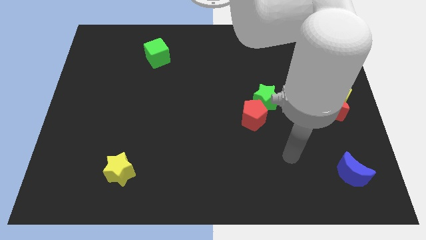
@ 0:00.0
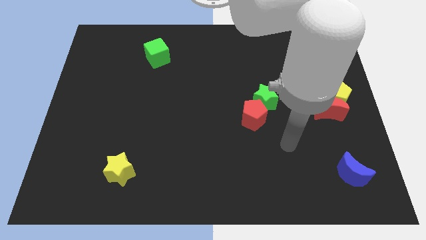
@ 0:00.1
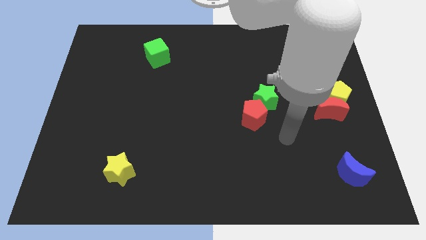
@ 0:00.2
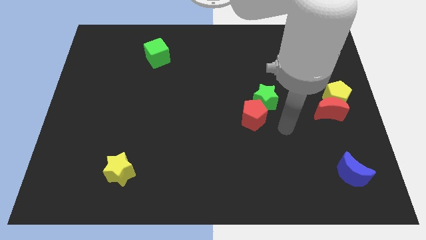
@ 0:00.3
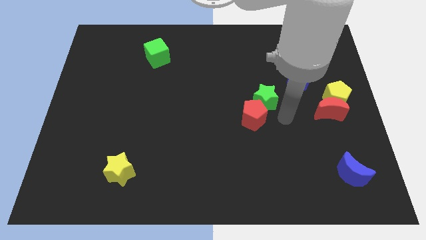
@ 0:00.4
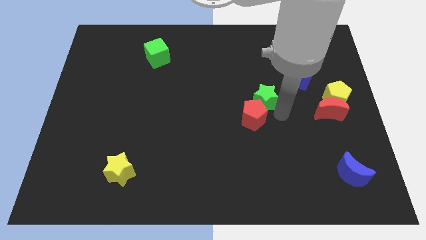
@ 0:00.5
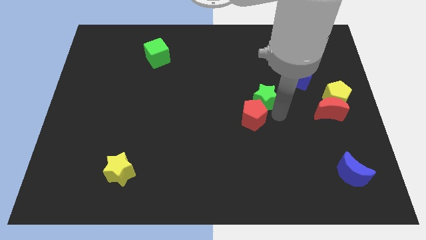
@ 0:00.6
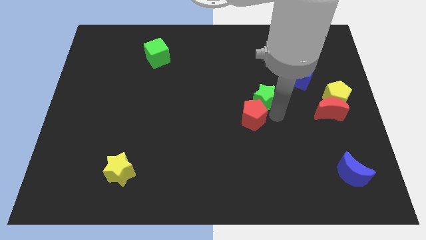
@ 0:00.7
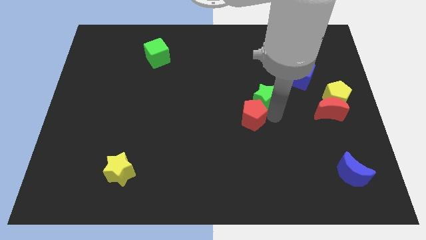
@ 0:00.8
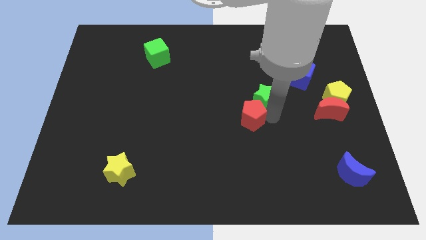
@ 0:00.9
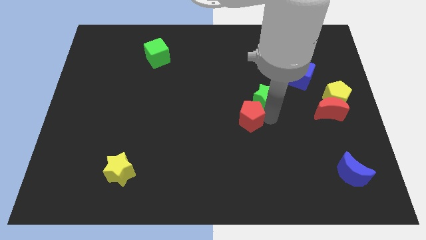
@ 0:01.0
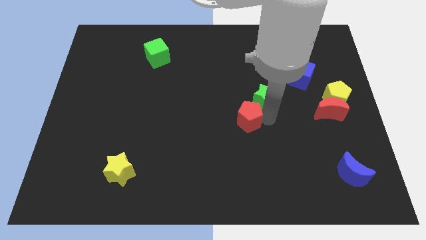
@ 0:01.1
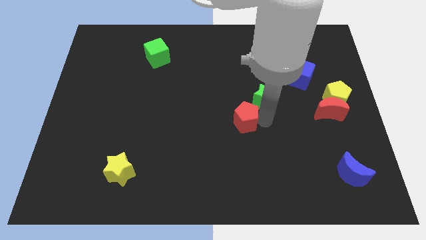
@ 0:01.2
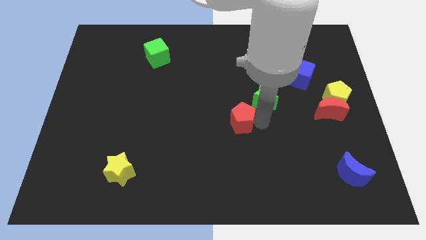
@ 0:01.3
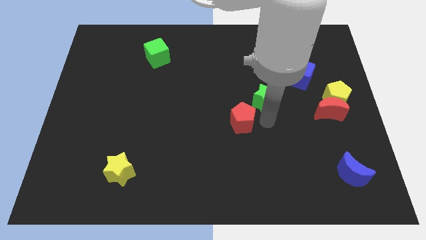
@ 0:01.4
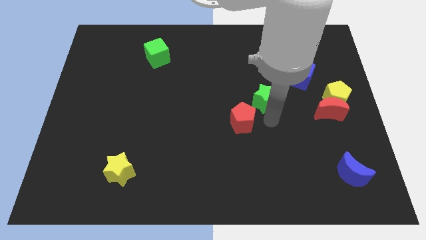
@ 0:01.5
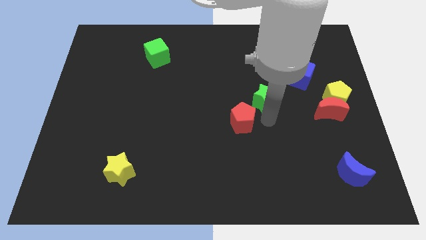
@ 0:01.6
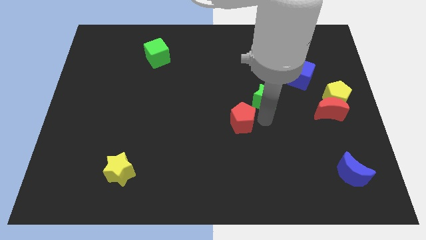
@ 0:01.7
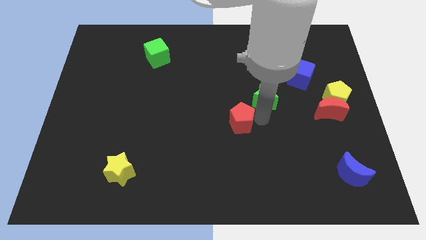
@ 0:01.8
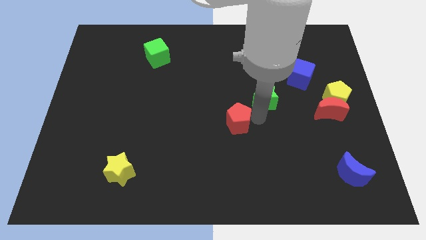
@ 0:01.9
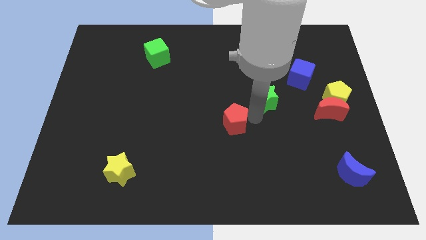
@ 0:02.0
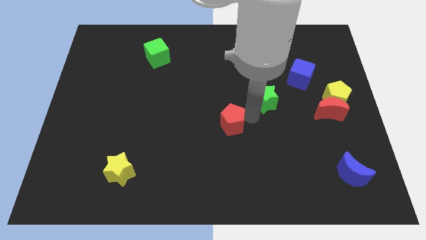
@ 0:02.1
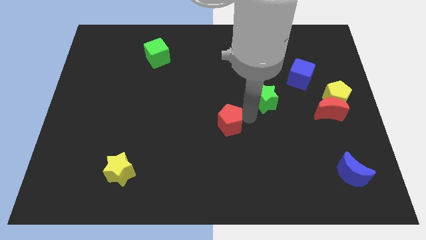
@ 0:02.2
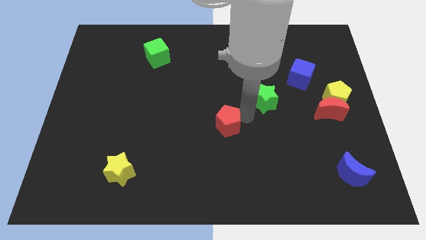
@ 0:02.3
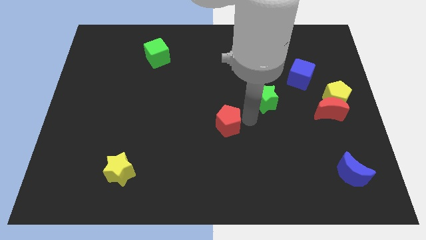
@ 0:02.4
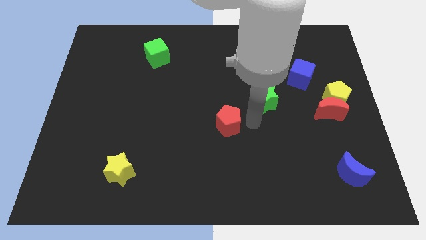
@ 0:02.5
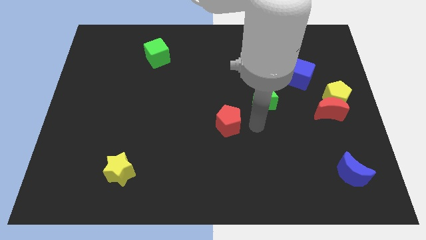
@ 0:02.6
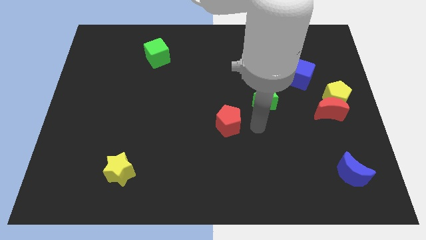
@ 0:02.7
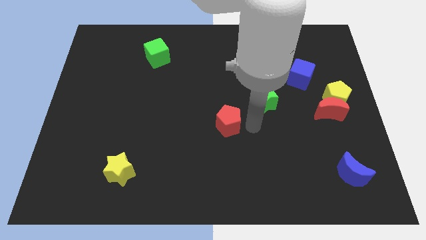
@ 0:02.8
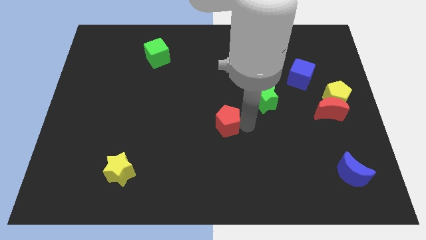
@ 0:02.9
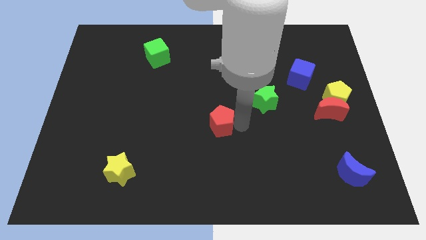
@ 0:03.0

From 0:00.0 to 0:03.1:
slightly push the red pentagon left

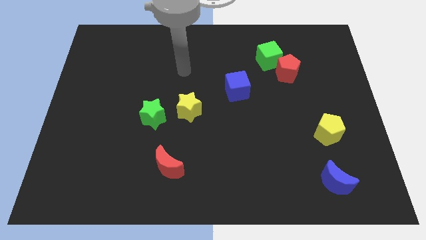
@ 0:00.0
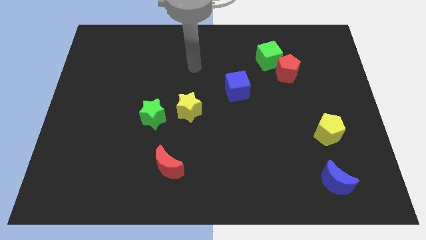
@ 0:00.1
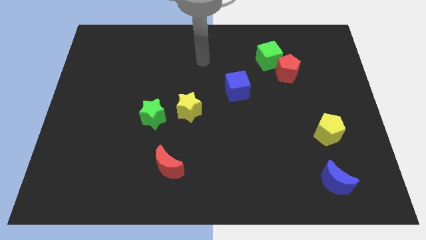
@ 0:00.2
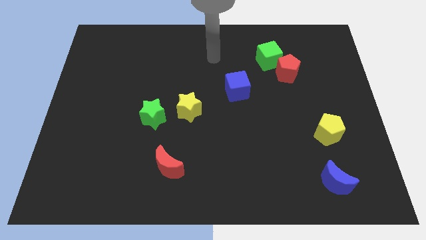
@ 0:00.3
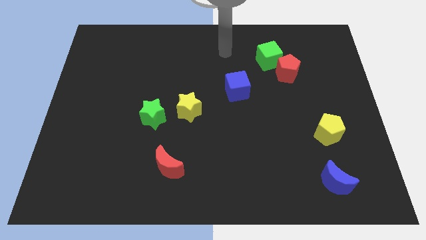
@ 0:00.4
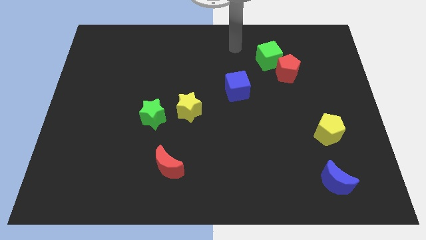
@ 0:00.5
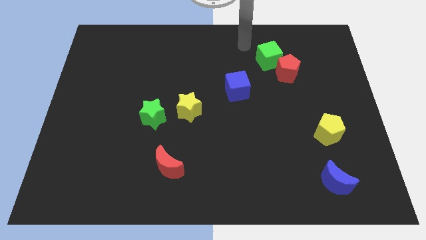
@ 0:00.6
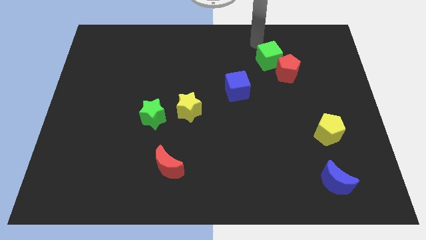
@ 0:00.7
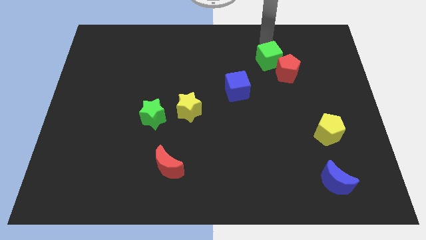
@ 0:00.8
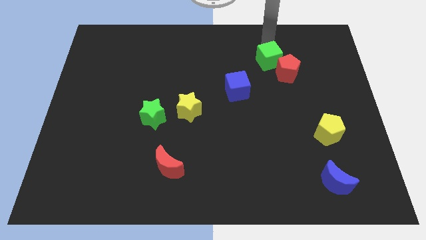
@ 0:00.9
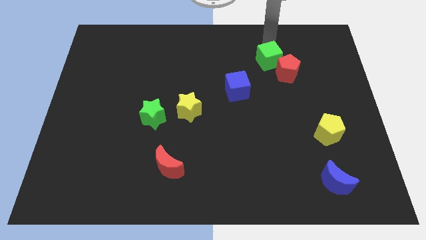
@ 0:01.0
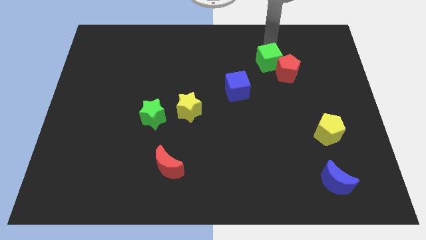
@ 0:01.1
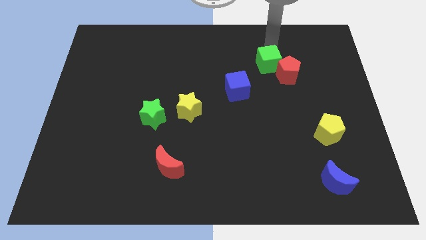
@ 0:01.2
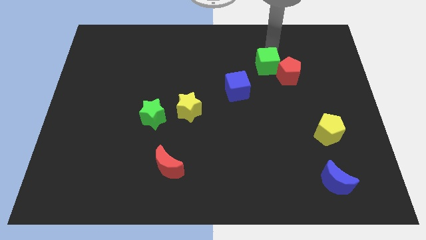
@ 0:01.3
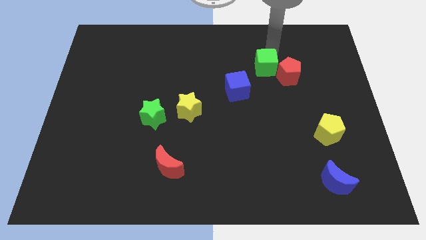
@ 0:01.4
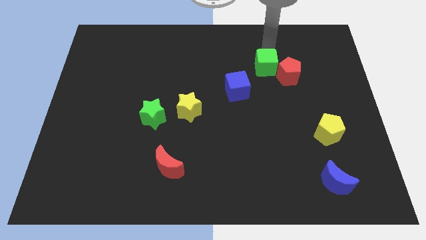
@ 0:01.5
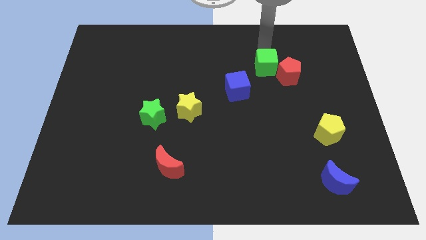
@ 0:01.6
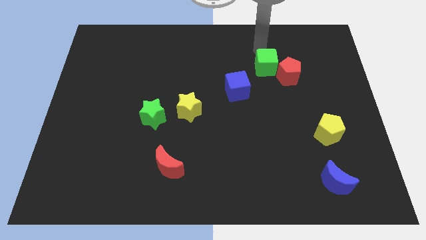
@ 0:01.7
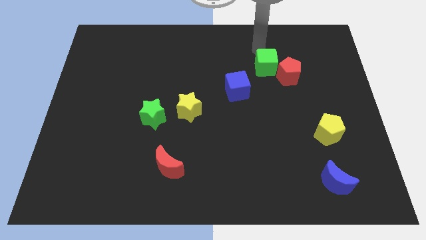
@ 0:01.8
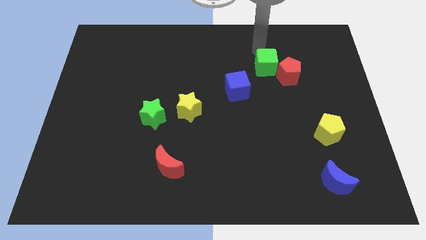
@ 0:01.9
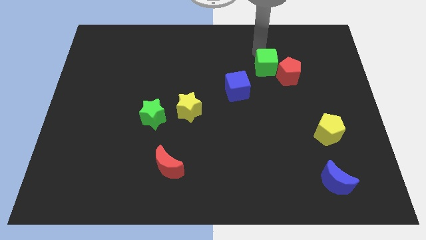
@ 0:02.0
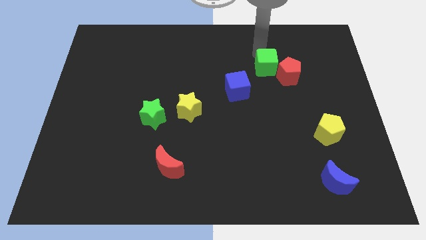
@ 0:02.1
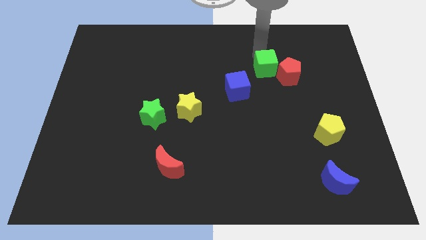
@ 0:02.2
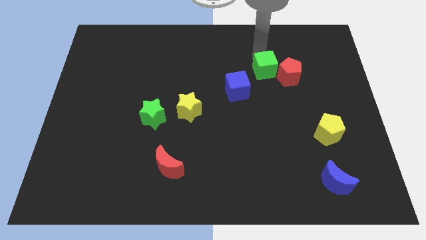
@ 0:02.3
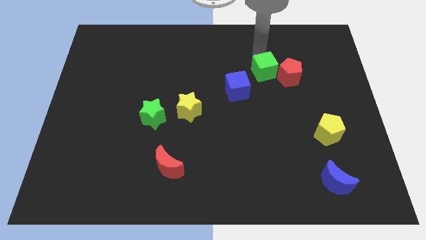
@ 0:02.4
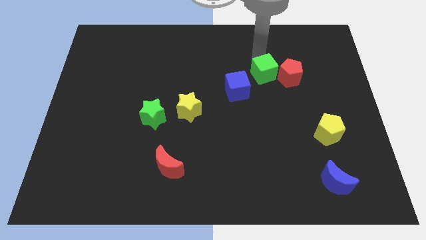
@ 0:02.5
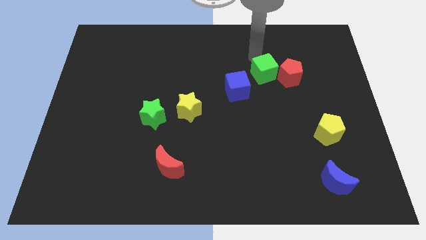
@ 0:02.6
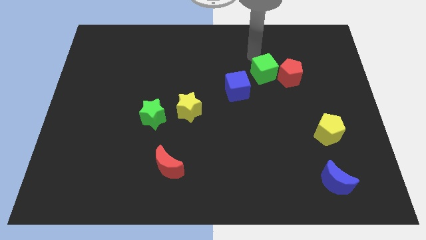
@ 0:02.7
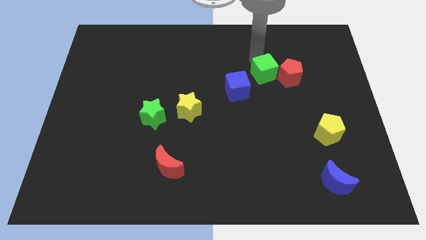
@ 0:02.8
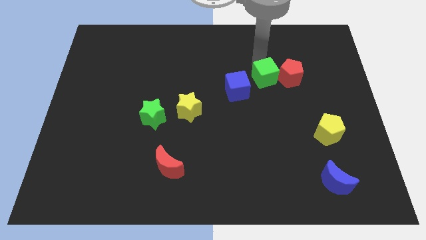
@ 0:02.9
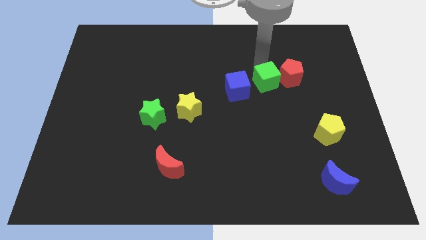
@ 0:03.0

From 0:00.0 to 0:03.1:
push the green cube downwards a little

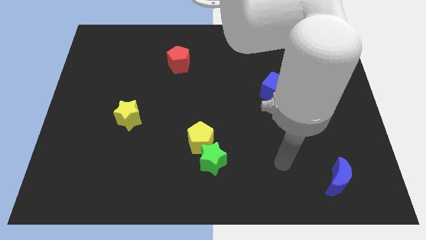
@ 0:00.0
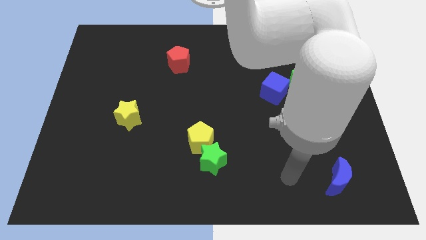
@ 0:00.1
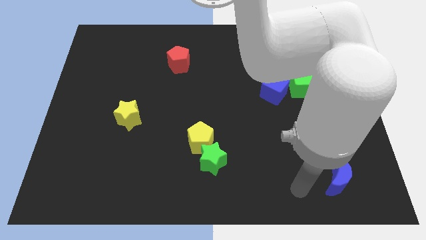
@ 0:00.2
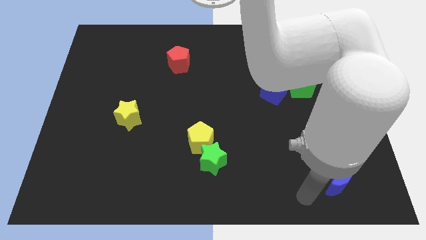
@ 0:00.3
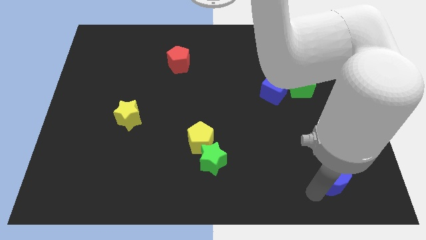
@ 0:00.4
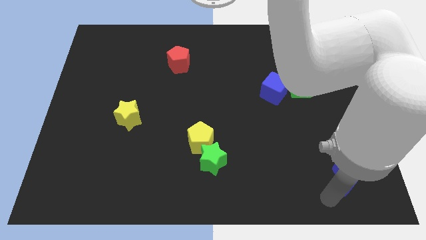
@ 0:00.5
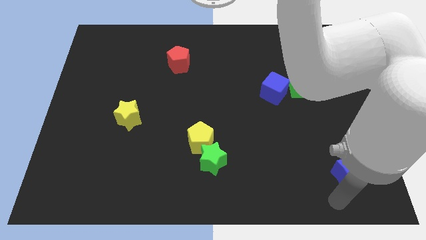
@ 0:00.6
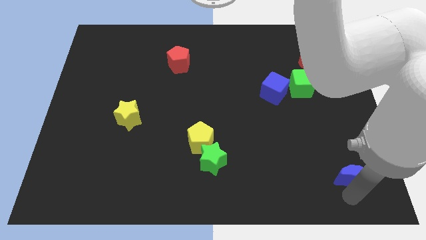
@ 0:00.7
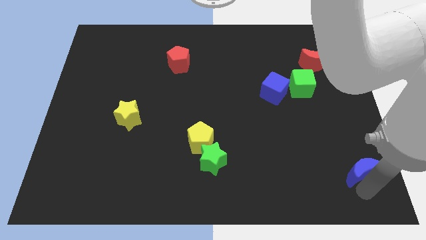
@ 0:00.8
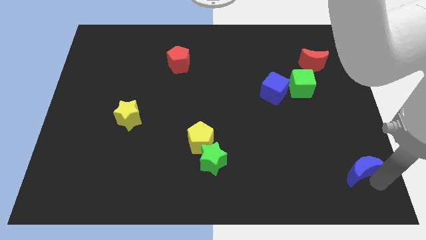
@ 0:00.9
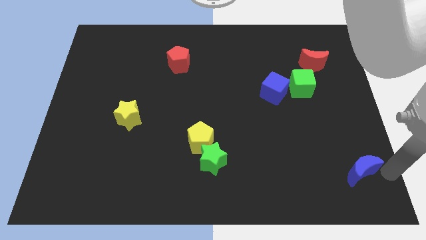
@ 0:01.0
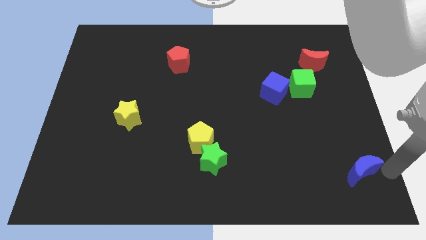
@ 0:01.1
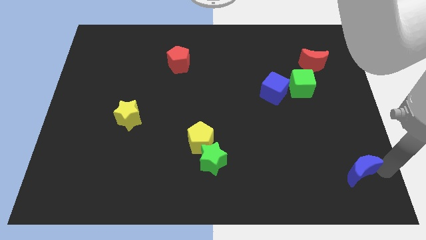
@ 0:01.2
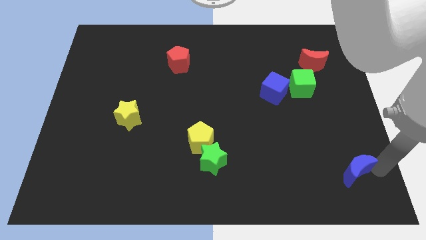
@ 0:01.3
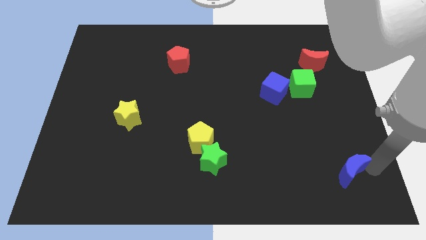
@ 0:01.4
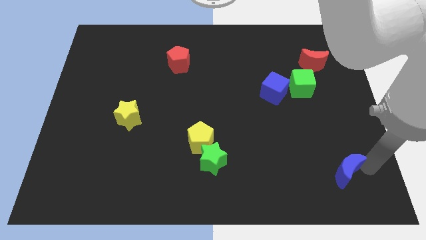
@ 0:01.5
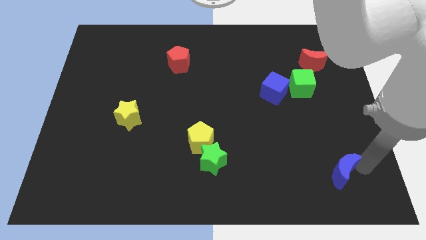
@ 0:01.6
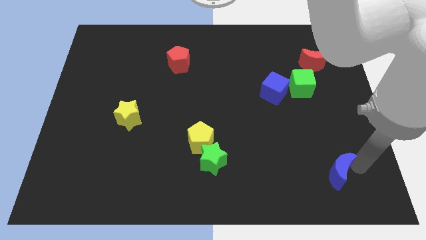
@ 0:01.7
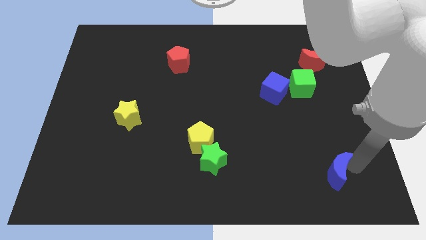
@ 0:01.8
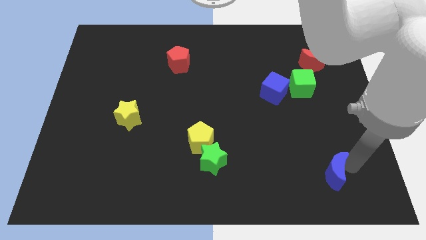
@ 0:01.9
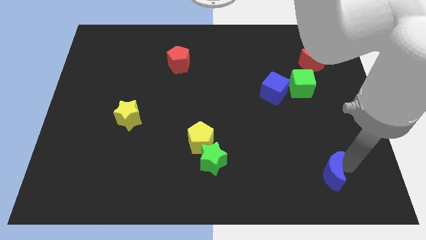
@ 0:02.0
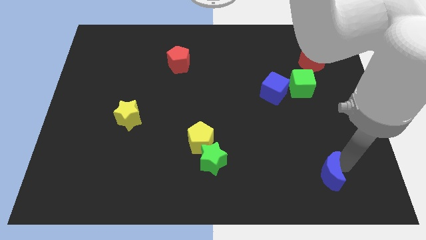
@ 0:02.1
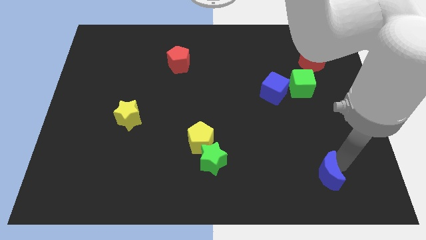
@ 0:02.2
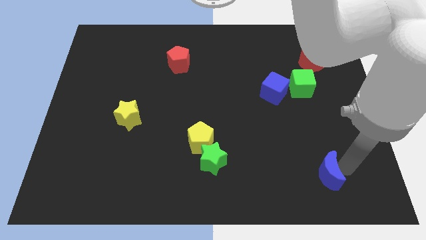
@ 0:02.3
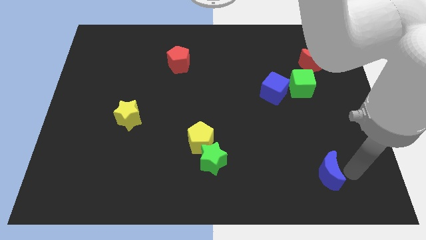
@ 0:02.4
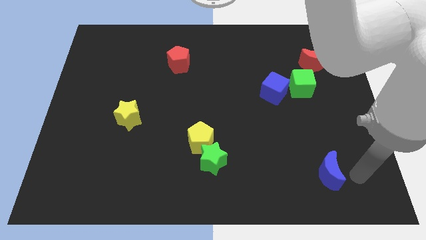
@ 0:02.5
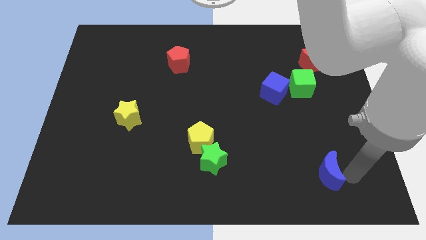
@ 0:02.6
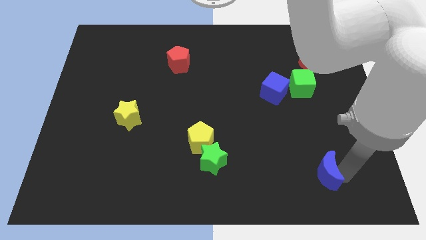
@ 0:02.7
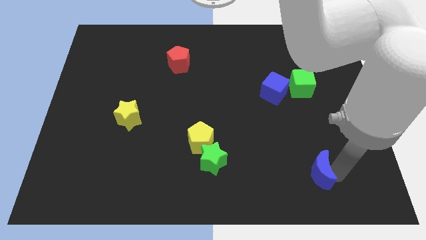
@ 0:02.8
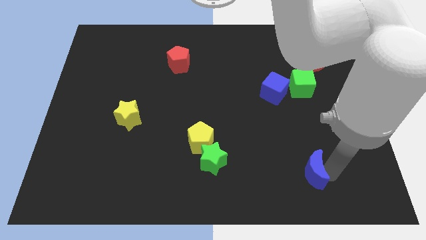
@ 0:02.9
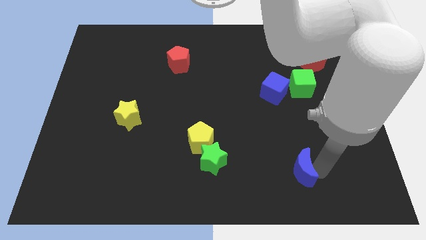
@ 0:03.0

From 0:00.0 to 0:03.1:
slide the blue moon to the left somewhat
